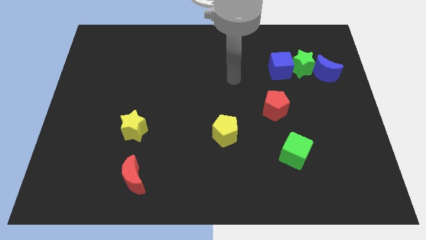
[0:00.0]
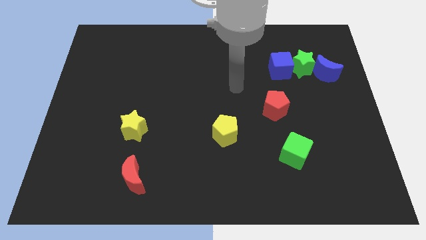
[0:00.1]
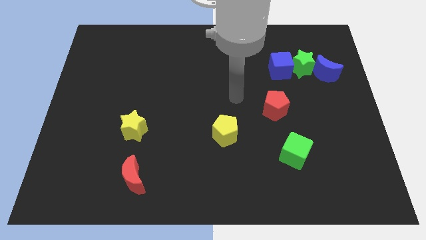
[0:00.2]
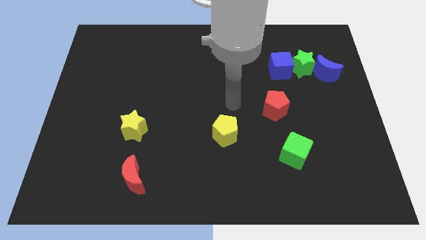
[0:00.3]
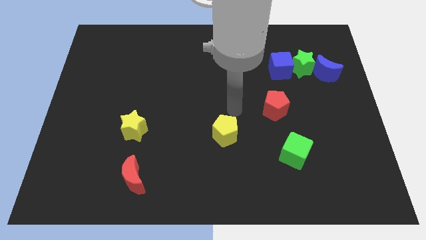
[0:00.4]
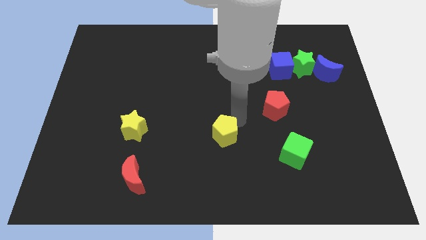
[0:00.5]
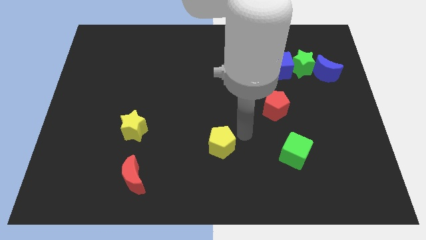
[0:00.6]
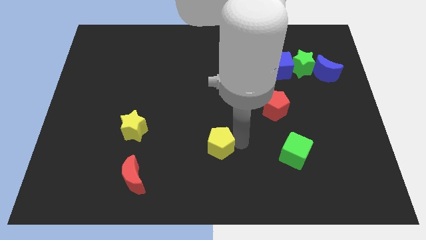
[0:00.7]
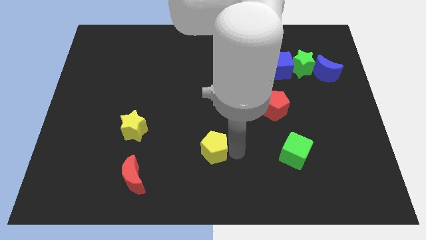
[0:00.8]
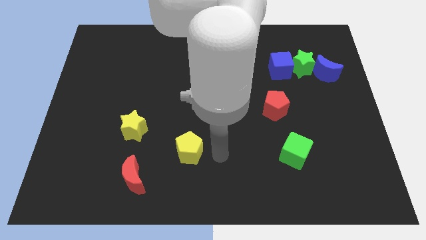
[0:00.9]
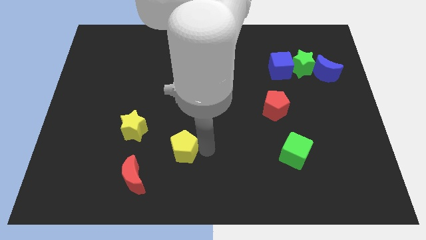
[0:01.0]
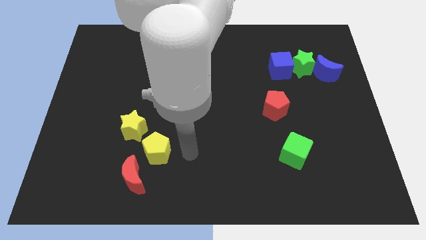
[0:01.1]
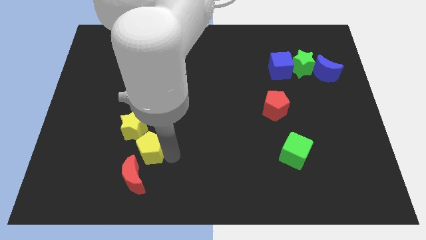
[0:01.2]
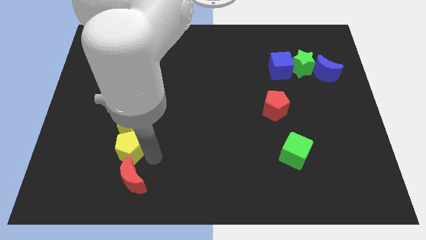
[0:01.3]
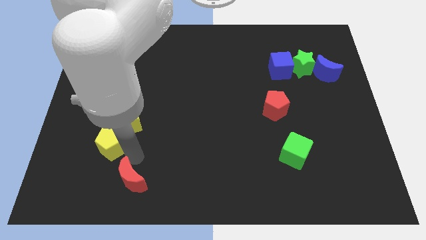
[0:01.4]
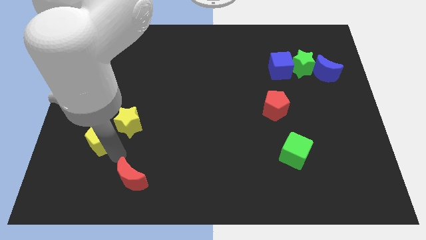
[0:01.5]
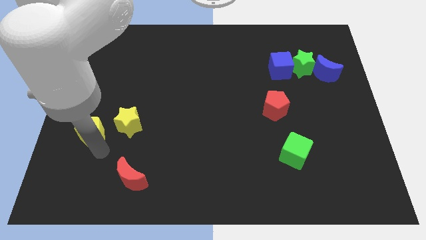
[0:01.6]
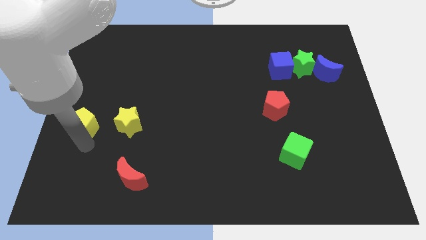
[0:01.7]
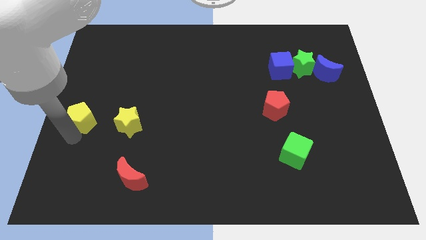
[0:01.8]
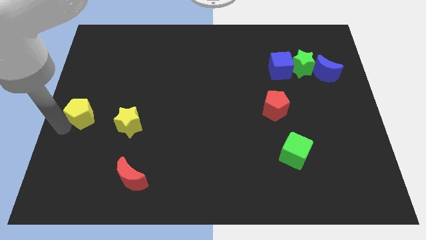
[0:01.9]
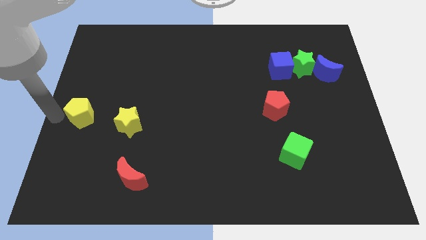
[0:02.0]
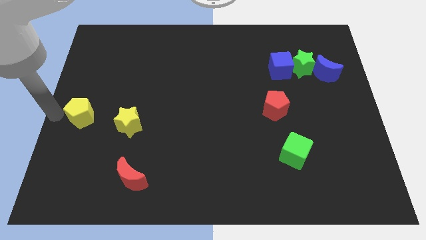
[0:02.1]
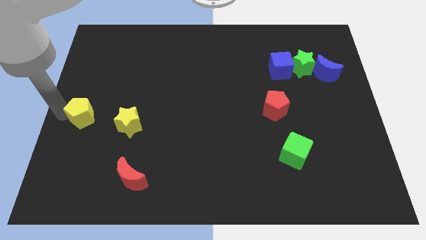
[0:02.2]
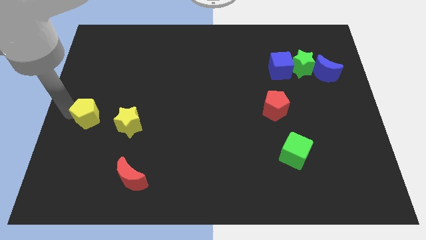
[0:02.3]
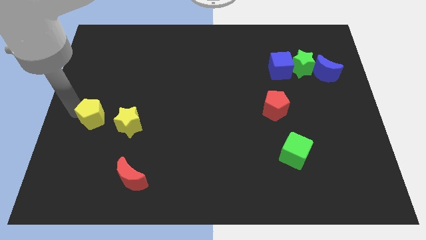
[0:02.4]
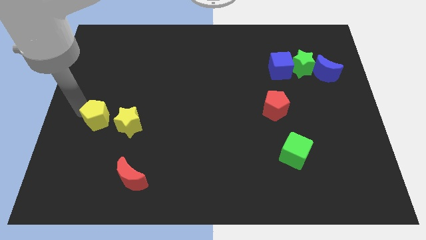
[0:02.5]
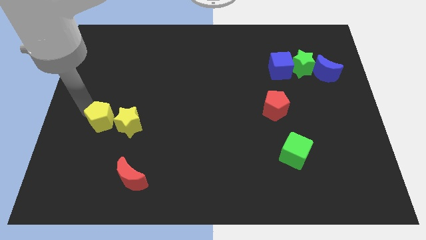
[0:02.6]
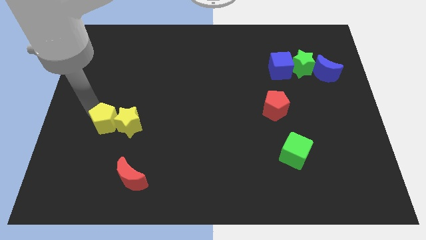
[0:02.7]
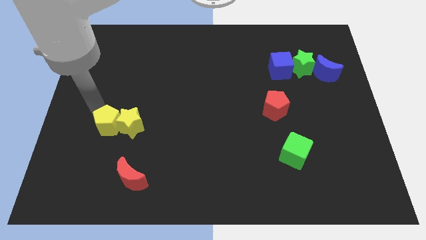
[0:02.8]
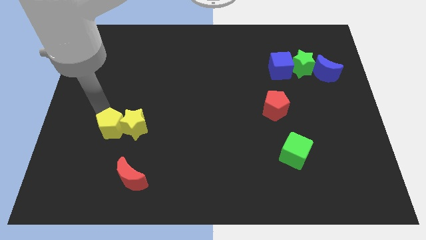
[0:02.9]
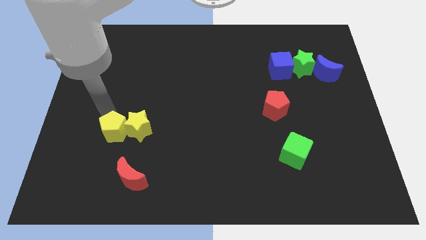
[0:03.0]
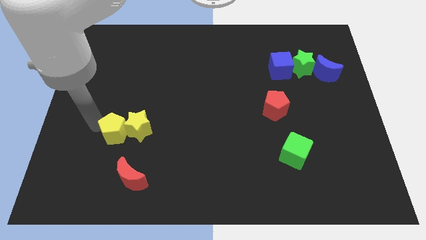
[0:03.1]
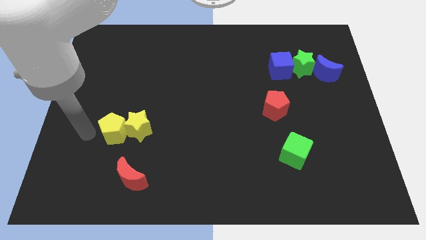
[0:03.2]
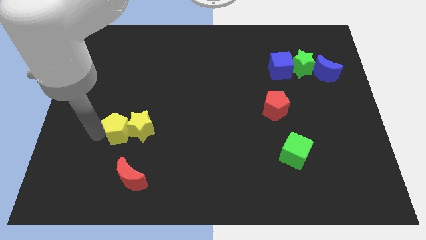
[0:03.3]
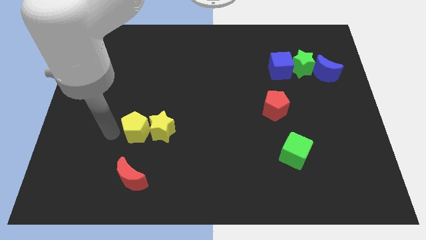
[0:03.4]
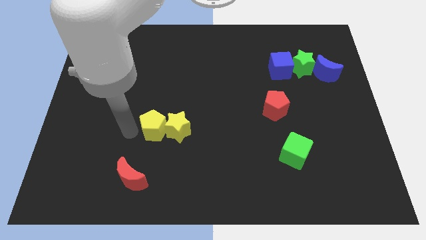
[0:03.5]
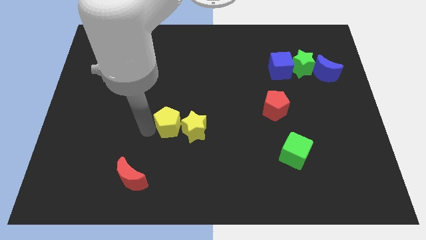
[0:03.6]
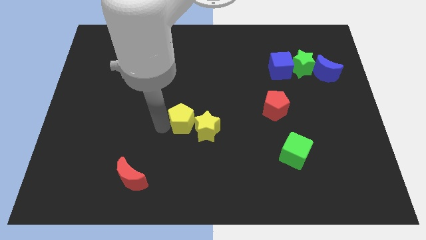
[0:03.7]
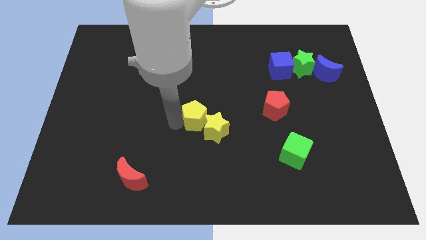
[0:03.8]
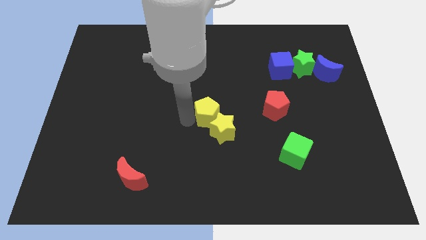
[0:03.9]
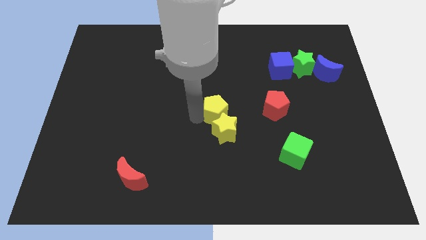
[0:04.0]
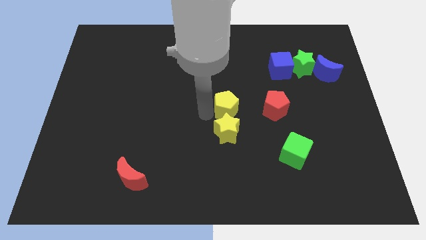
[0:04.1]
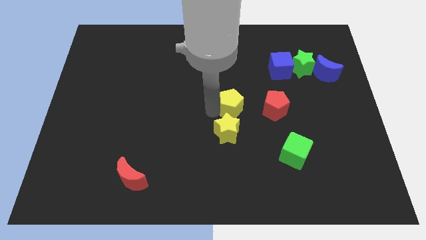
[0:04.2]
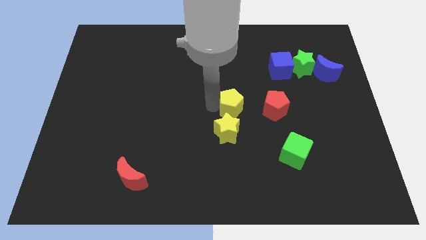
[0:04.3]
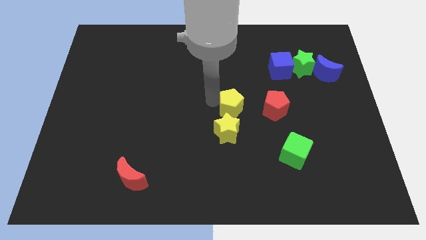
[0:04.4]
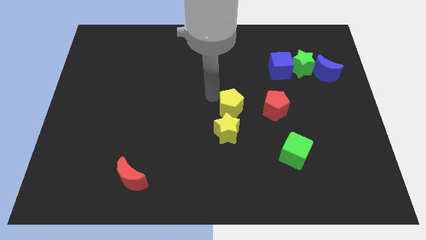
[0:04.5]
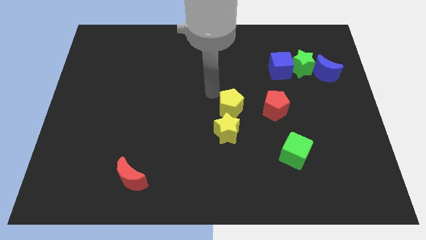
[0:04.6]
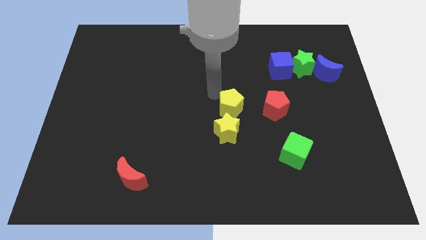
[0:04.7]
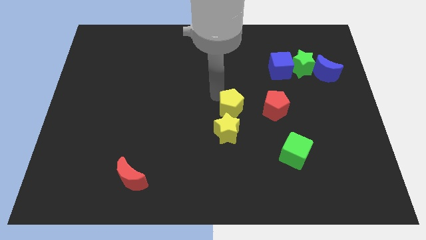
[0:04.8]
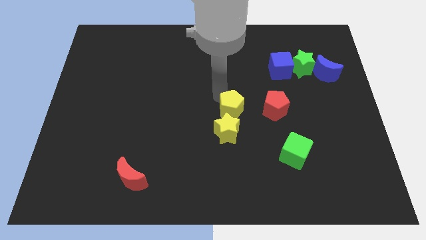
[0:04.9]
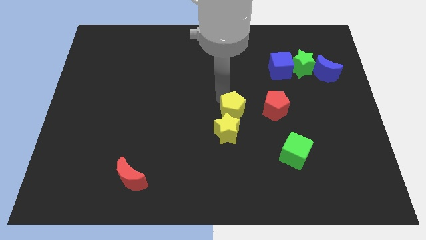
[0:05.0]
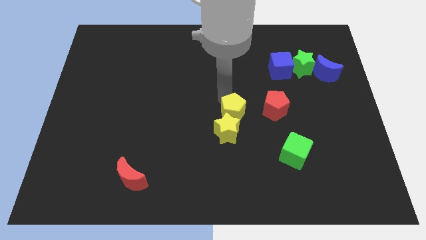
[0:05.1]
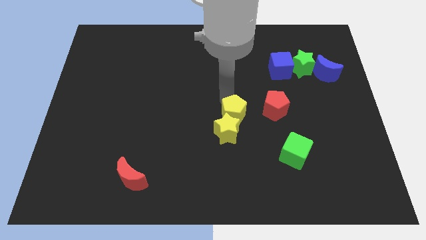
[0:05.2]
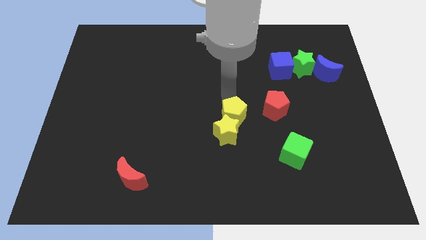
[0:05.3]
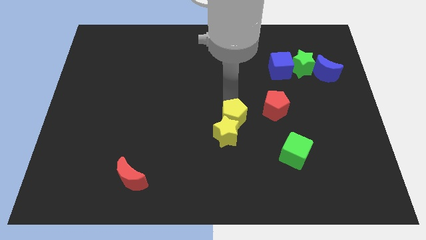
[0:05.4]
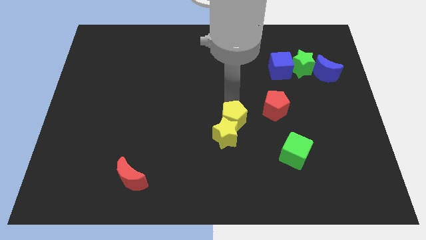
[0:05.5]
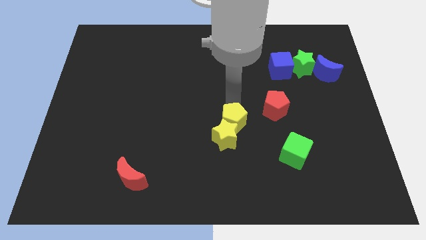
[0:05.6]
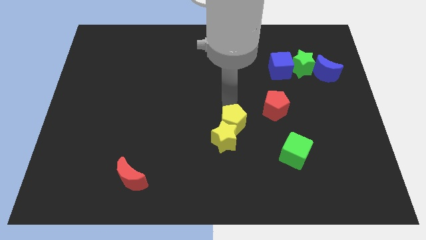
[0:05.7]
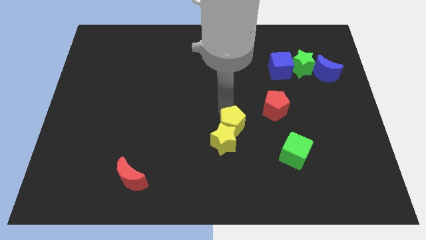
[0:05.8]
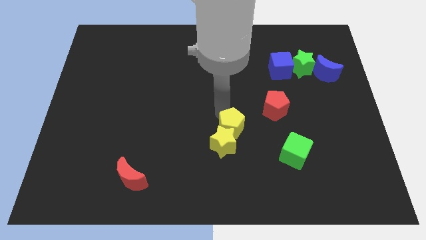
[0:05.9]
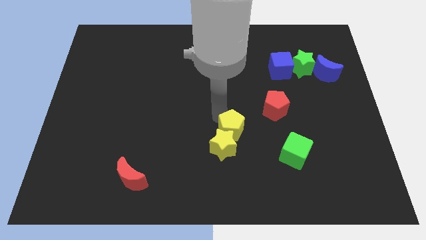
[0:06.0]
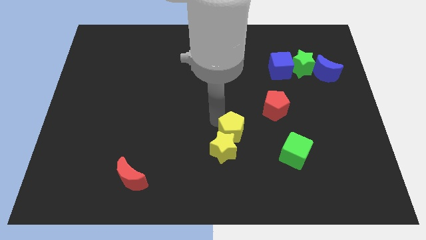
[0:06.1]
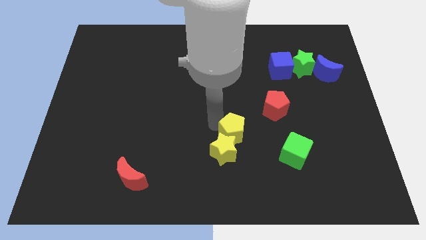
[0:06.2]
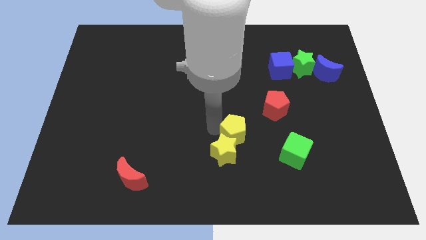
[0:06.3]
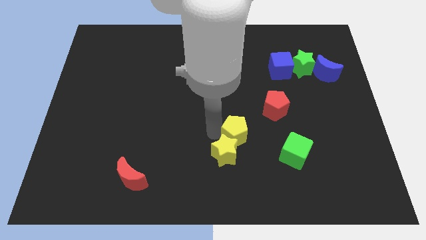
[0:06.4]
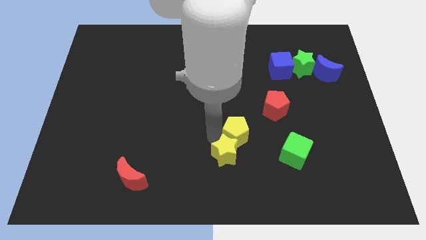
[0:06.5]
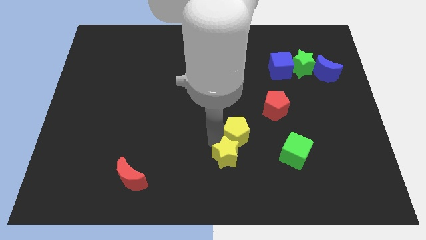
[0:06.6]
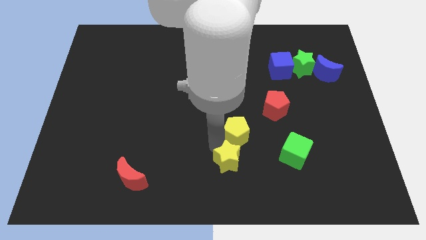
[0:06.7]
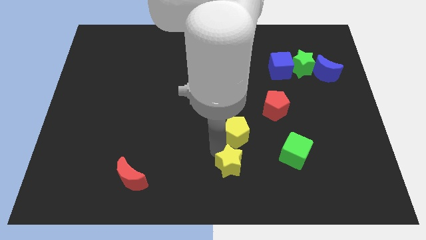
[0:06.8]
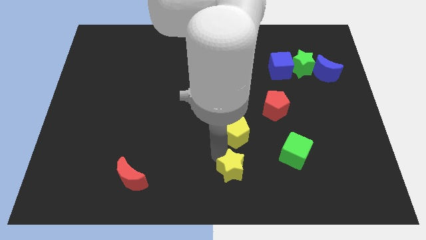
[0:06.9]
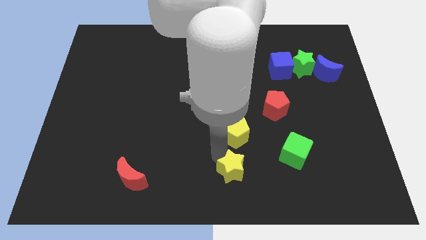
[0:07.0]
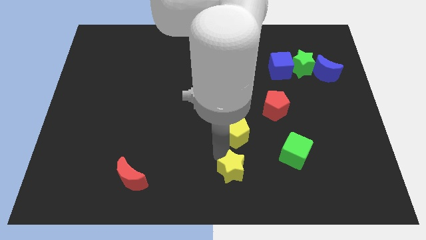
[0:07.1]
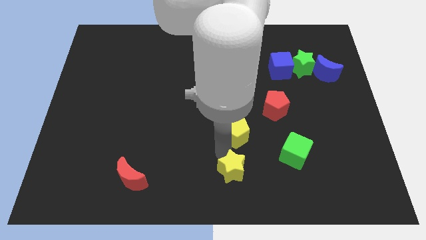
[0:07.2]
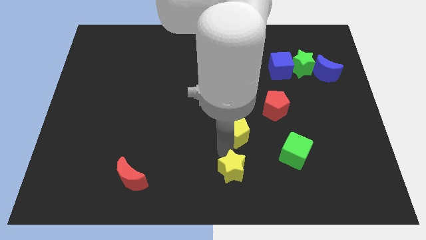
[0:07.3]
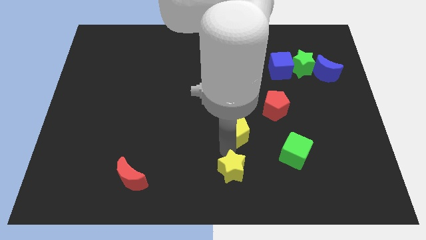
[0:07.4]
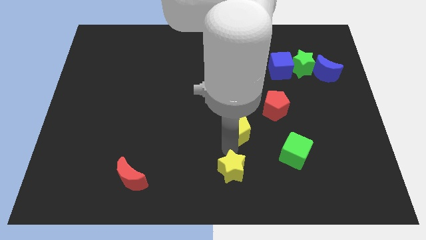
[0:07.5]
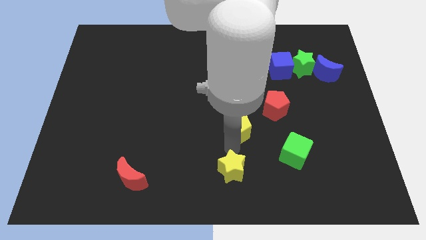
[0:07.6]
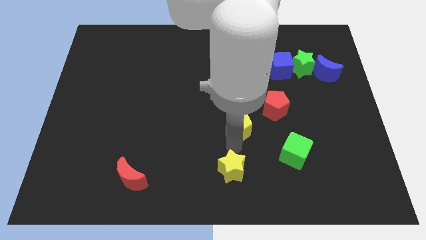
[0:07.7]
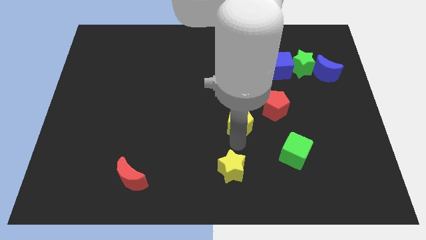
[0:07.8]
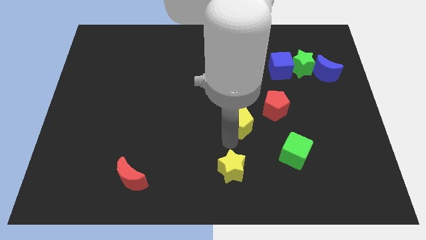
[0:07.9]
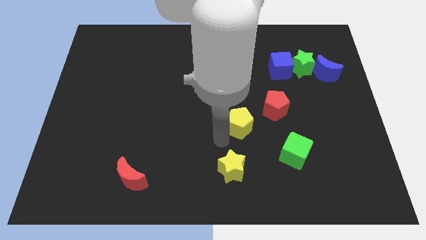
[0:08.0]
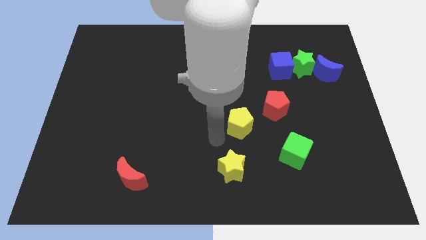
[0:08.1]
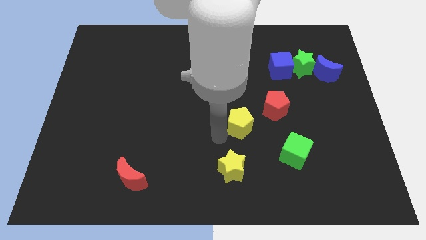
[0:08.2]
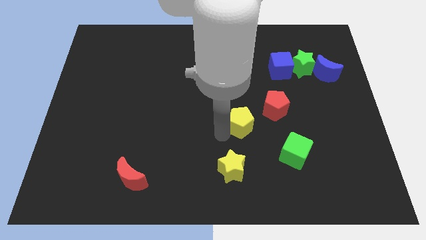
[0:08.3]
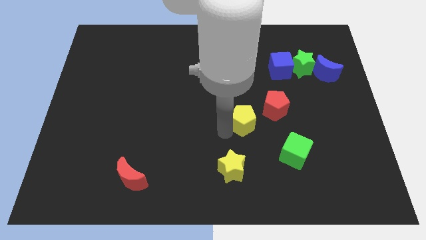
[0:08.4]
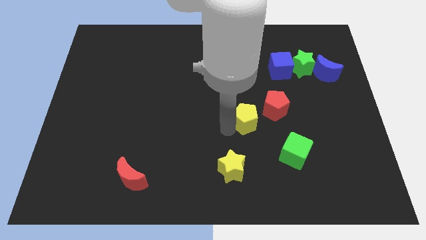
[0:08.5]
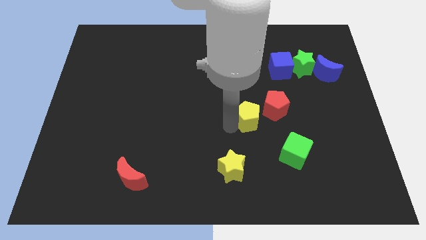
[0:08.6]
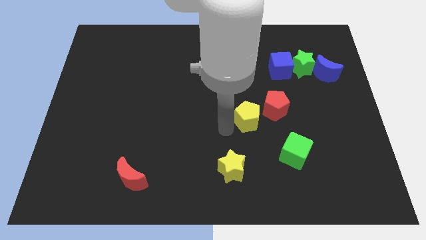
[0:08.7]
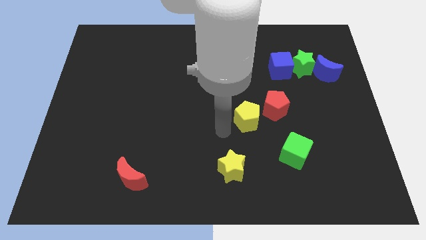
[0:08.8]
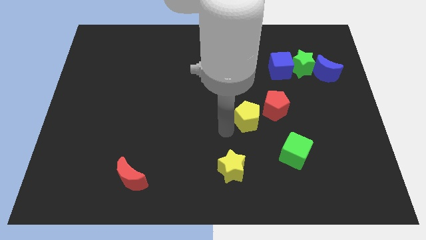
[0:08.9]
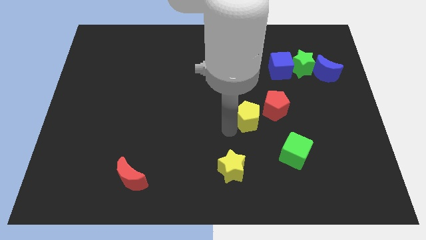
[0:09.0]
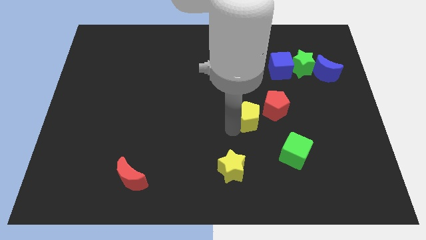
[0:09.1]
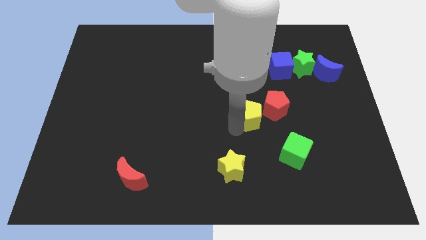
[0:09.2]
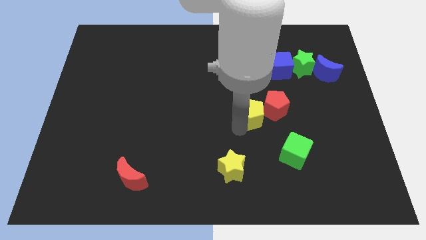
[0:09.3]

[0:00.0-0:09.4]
move the yellow pentagon close to the red pentagon
